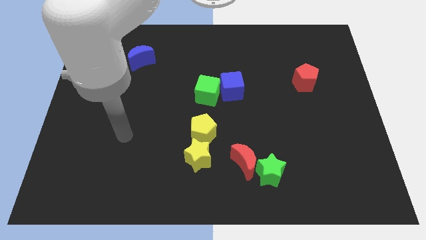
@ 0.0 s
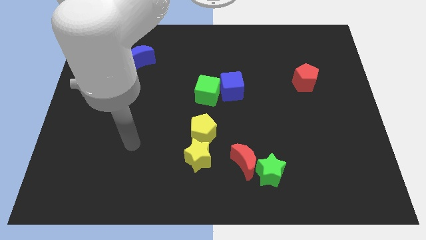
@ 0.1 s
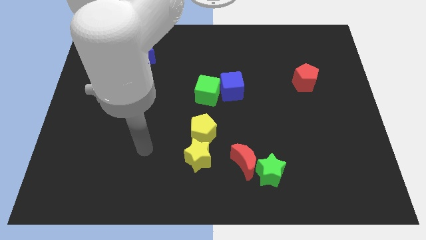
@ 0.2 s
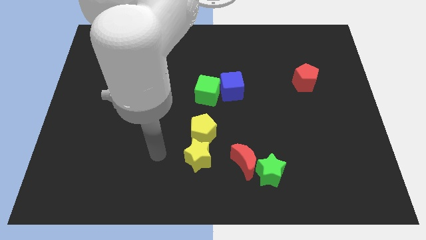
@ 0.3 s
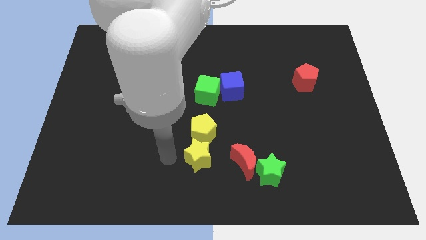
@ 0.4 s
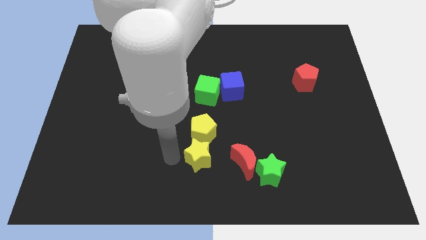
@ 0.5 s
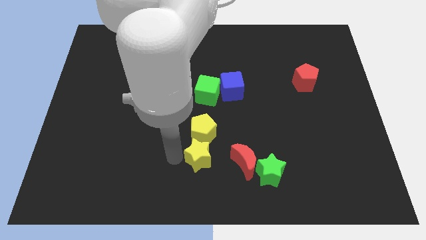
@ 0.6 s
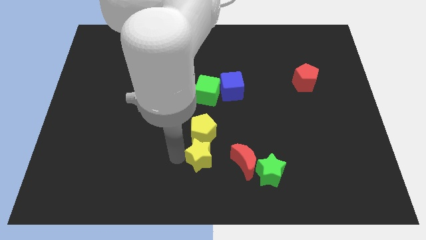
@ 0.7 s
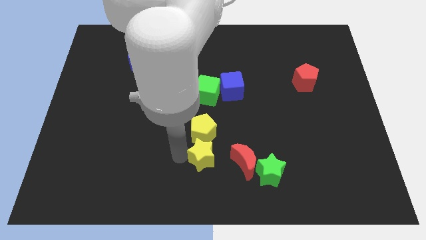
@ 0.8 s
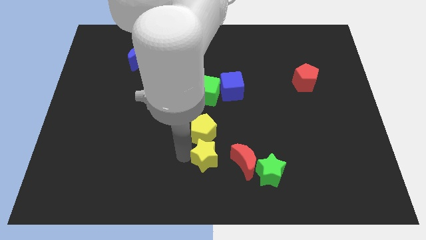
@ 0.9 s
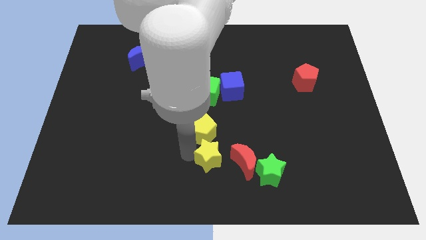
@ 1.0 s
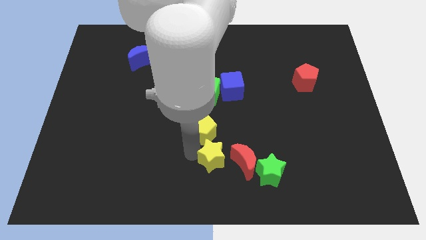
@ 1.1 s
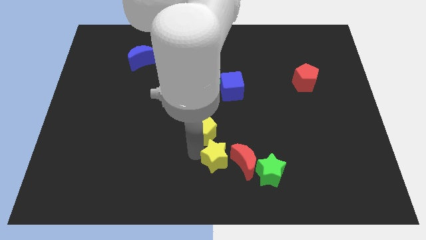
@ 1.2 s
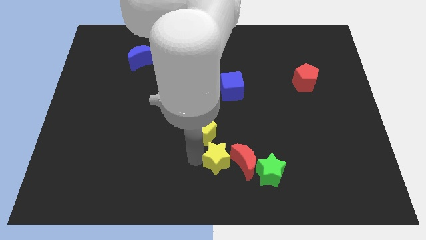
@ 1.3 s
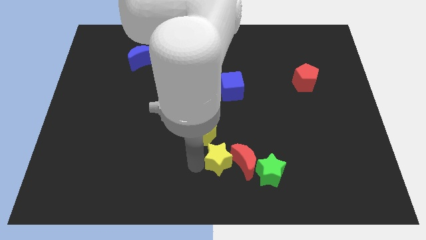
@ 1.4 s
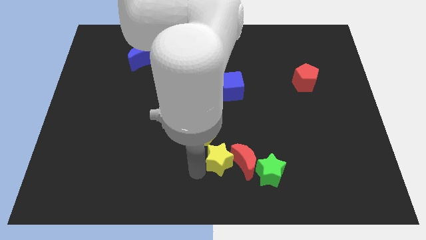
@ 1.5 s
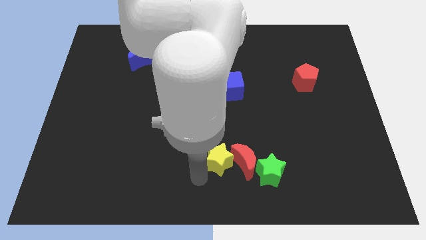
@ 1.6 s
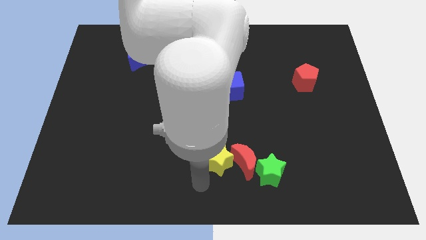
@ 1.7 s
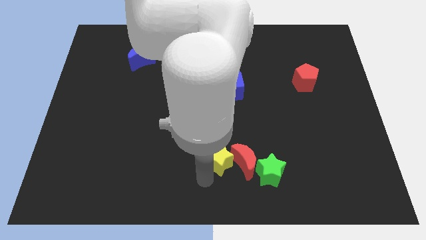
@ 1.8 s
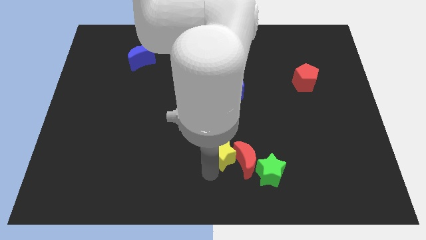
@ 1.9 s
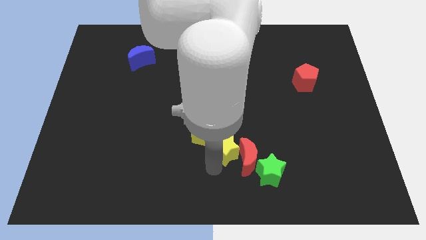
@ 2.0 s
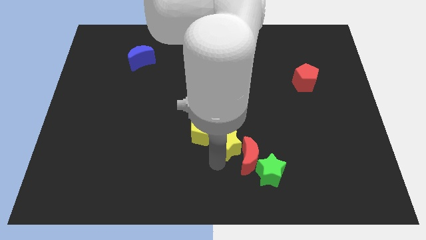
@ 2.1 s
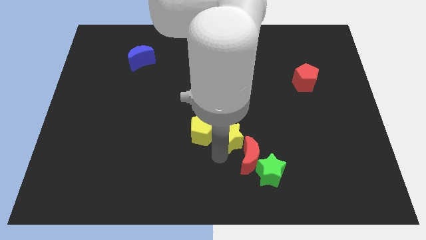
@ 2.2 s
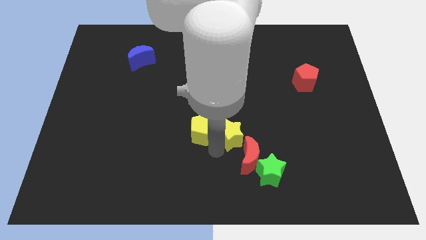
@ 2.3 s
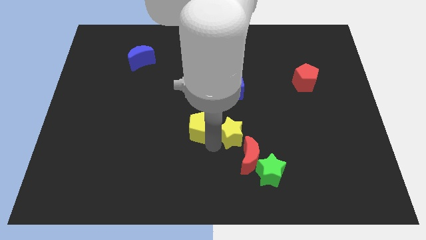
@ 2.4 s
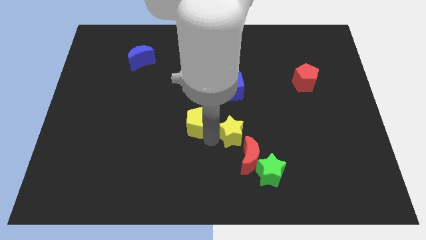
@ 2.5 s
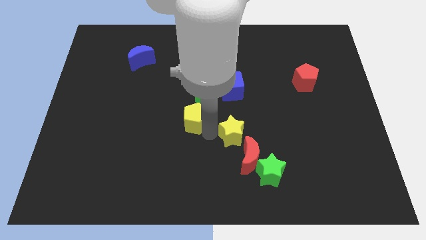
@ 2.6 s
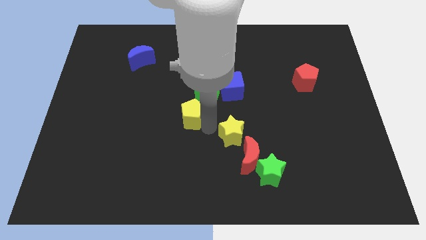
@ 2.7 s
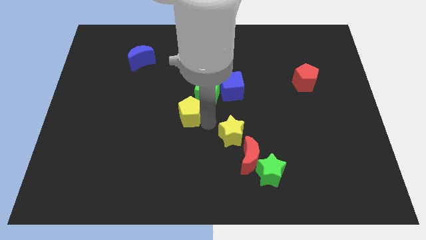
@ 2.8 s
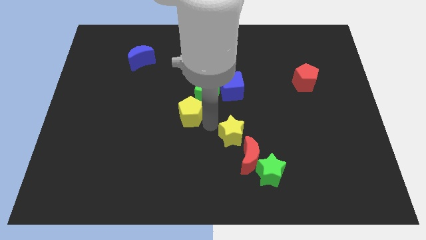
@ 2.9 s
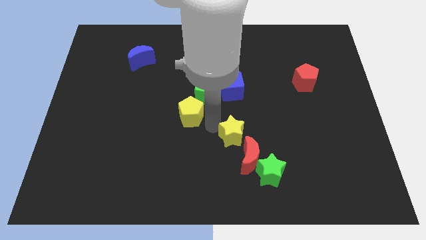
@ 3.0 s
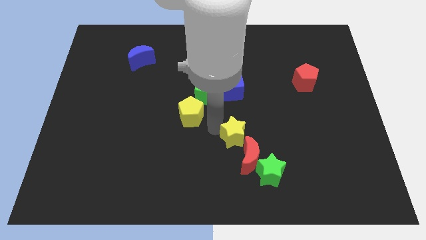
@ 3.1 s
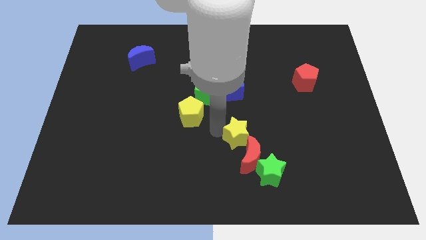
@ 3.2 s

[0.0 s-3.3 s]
move the yellow star right a little

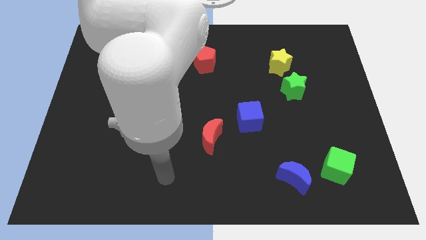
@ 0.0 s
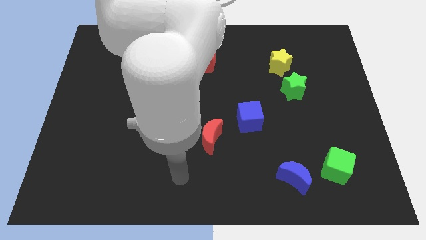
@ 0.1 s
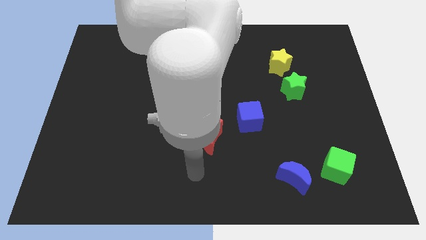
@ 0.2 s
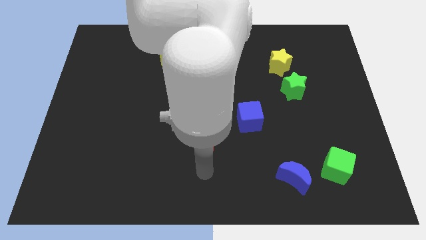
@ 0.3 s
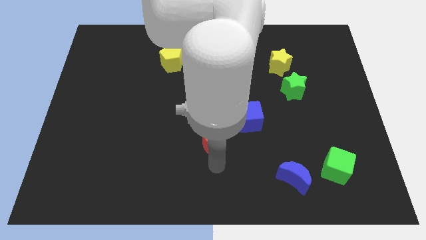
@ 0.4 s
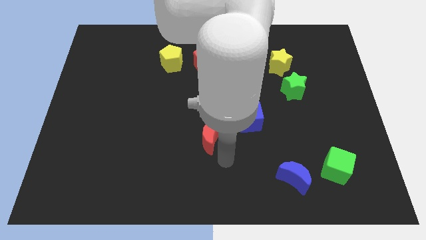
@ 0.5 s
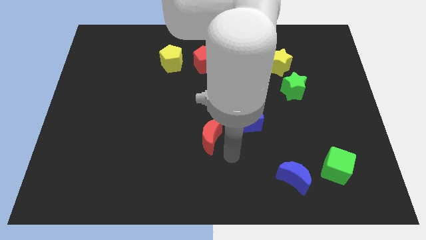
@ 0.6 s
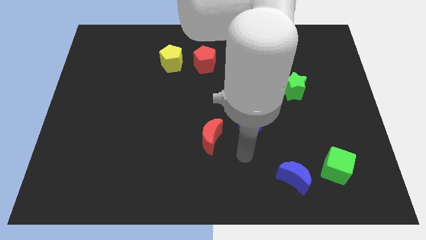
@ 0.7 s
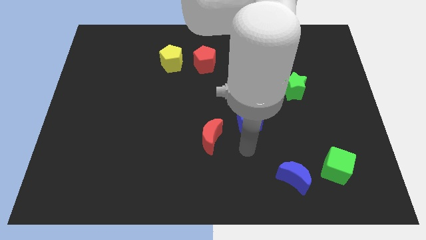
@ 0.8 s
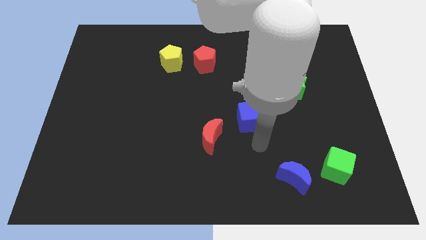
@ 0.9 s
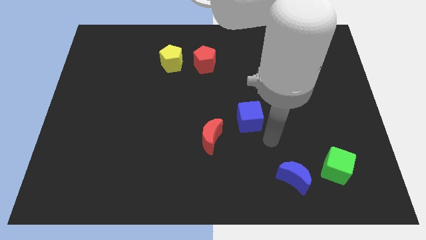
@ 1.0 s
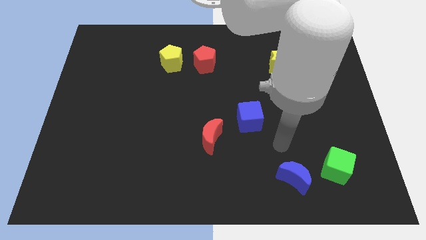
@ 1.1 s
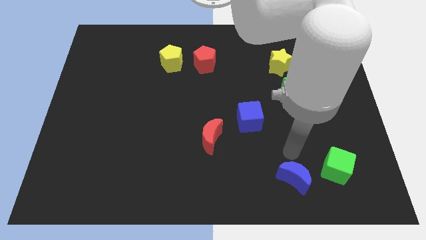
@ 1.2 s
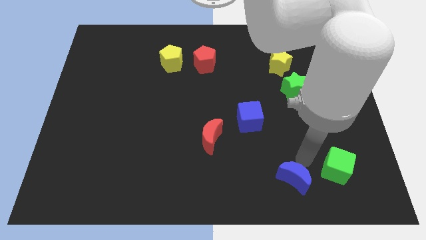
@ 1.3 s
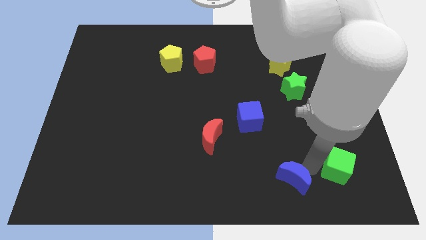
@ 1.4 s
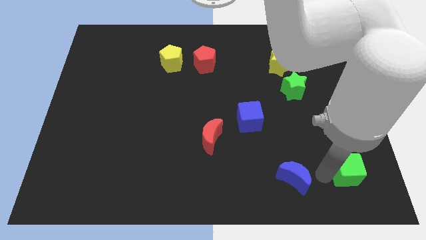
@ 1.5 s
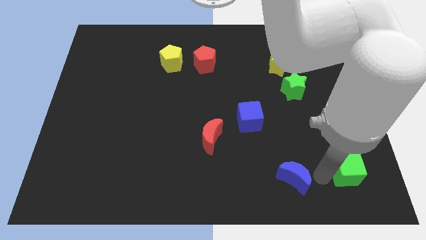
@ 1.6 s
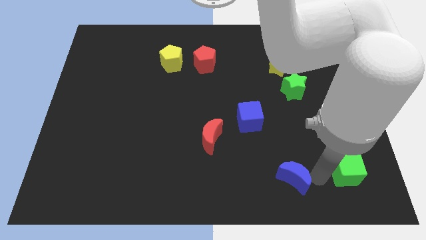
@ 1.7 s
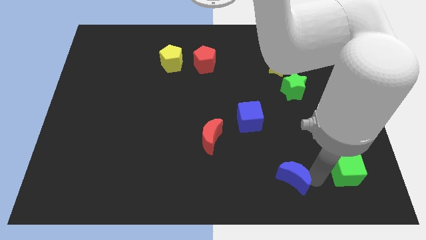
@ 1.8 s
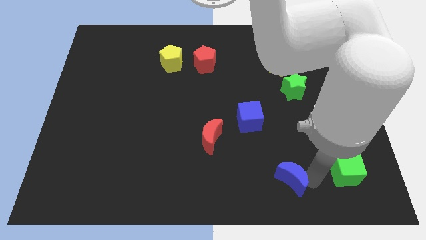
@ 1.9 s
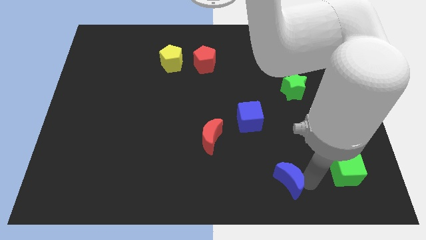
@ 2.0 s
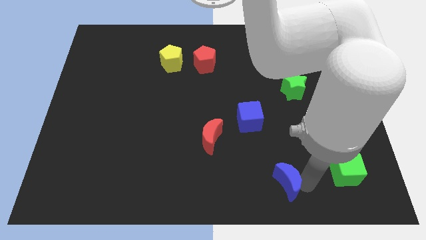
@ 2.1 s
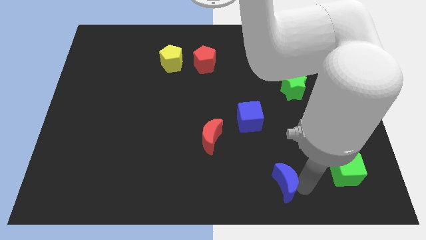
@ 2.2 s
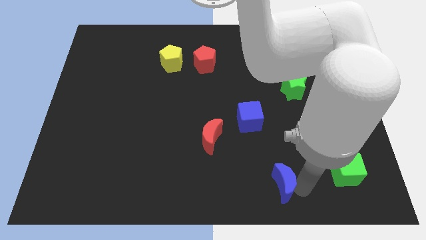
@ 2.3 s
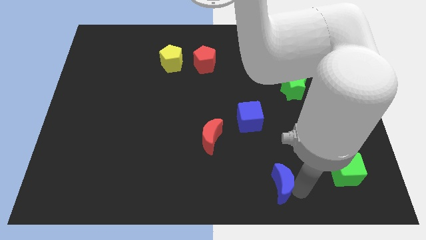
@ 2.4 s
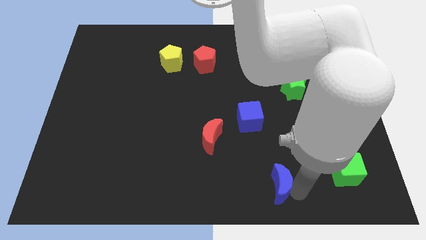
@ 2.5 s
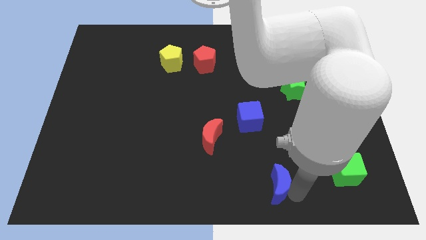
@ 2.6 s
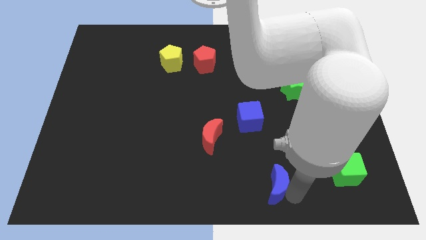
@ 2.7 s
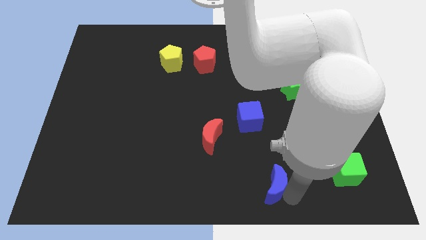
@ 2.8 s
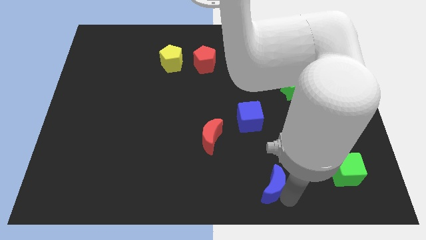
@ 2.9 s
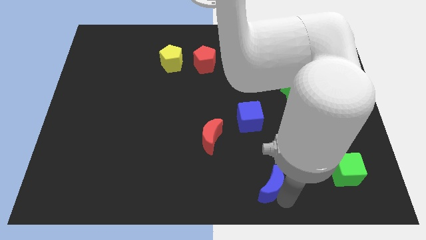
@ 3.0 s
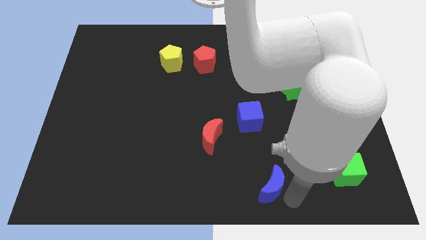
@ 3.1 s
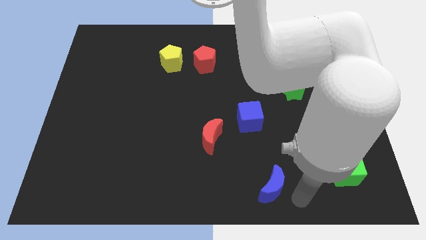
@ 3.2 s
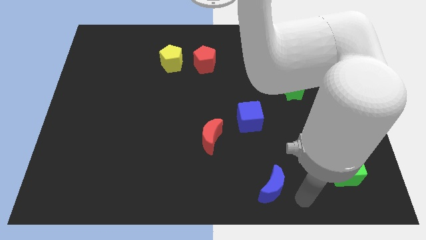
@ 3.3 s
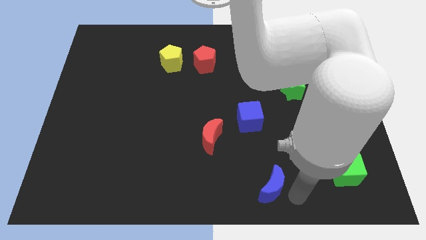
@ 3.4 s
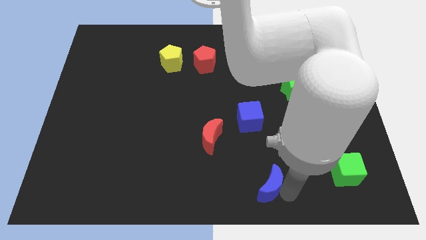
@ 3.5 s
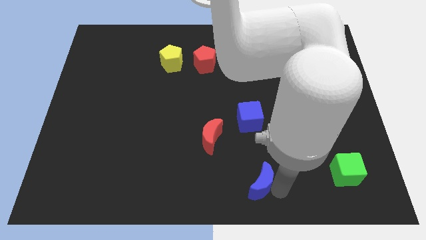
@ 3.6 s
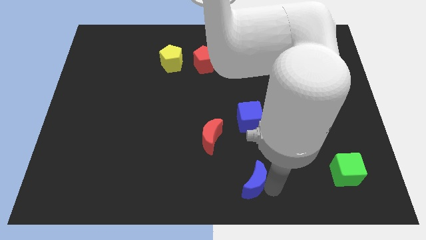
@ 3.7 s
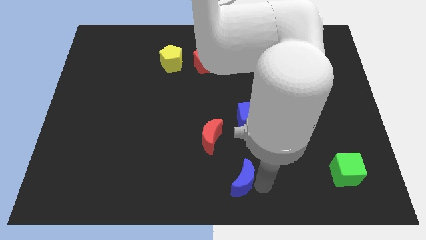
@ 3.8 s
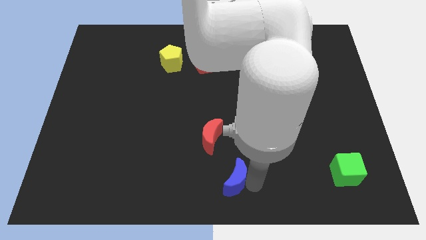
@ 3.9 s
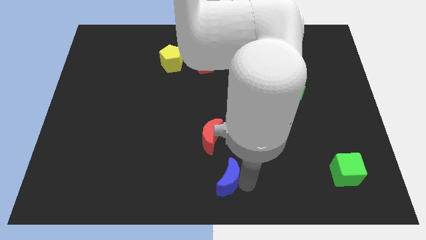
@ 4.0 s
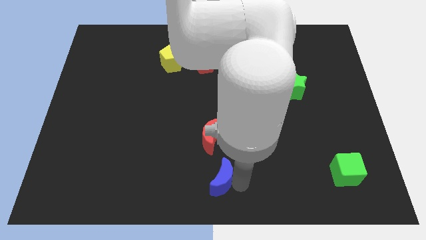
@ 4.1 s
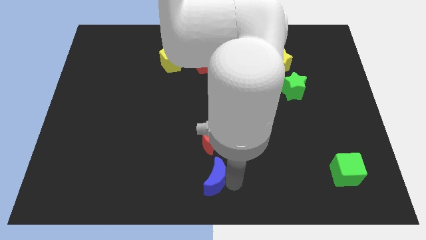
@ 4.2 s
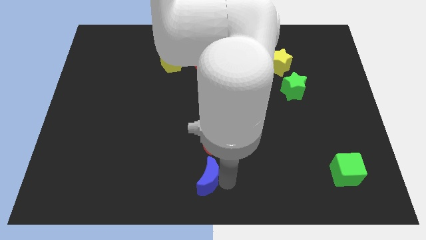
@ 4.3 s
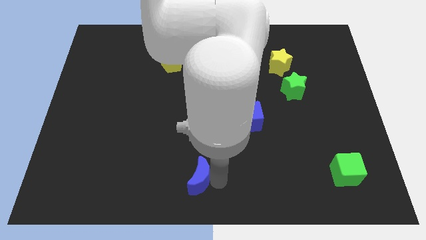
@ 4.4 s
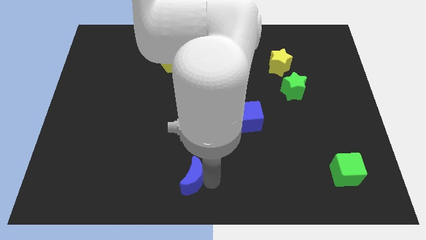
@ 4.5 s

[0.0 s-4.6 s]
move the blue moon to the left

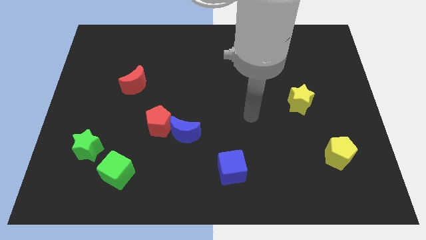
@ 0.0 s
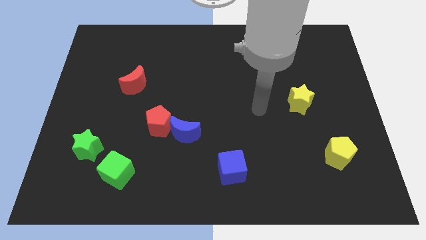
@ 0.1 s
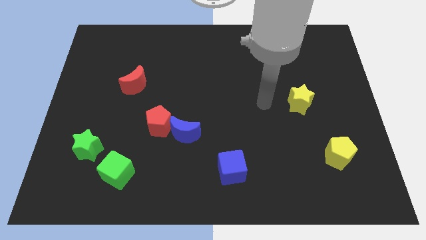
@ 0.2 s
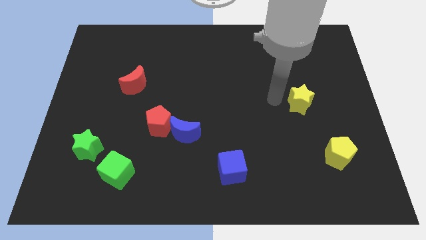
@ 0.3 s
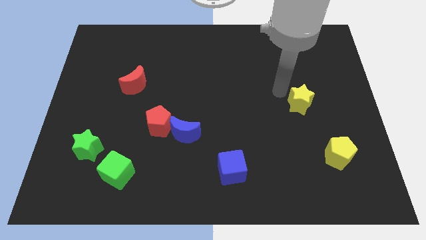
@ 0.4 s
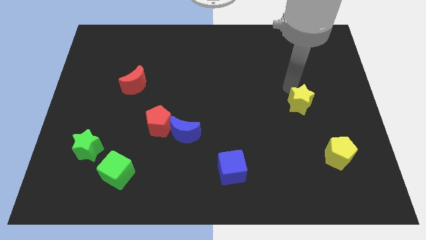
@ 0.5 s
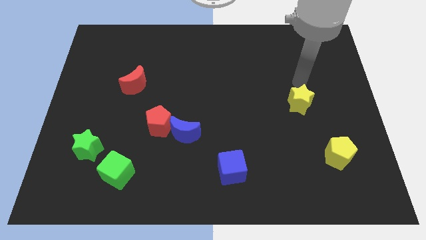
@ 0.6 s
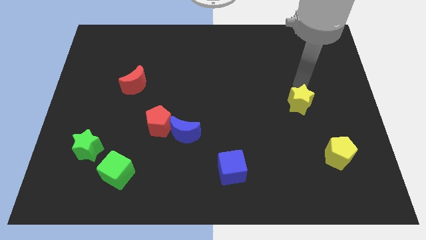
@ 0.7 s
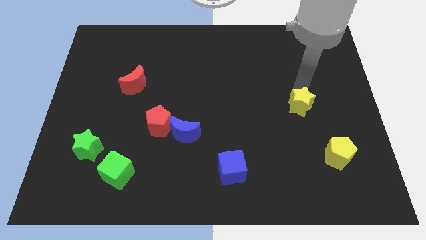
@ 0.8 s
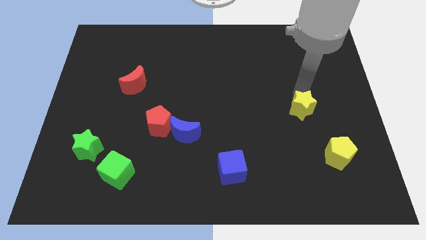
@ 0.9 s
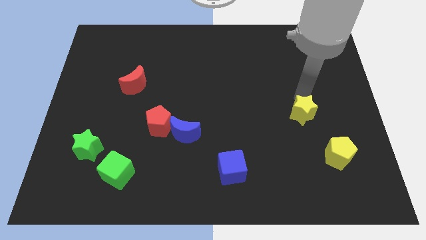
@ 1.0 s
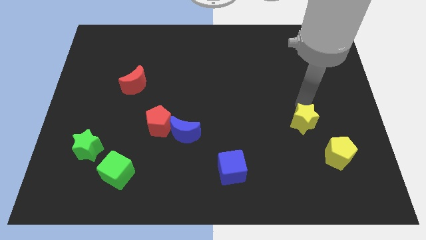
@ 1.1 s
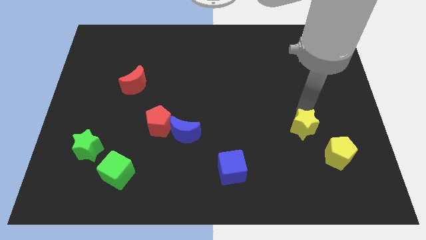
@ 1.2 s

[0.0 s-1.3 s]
push the yellow star down a bit
